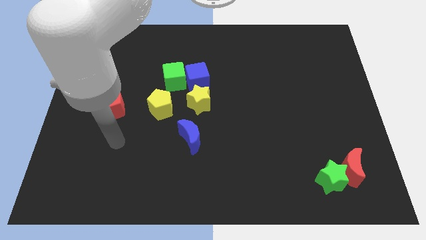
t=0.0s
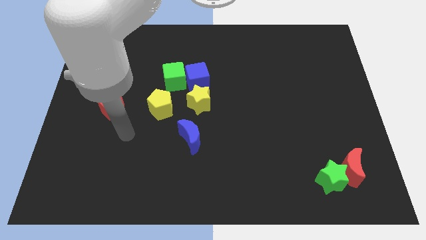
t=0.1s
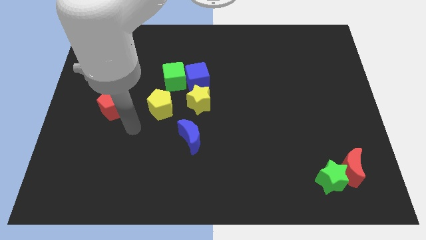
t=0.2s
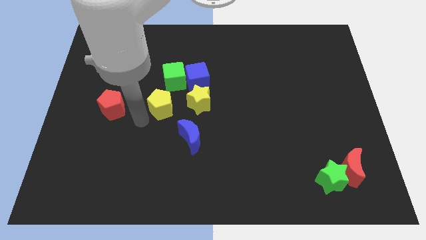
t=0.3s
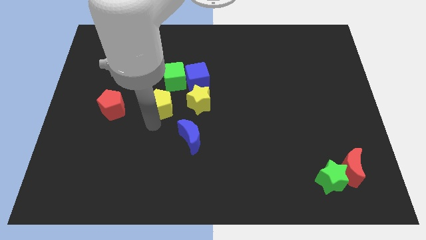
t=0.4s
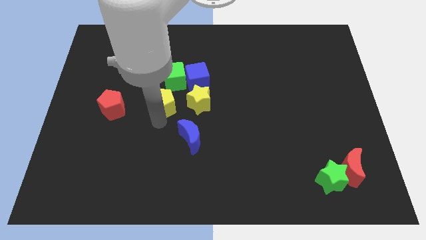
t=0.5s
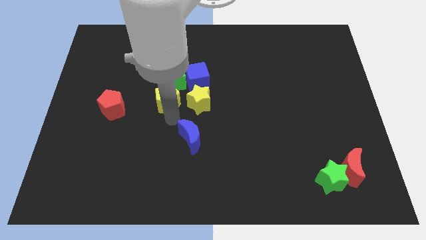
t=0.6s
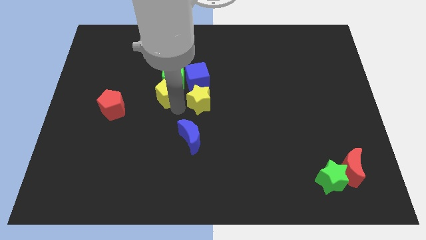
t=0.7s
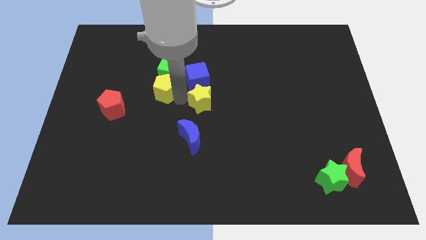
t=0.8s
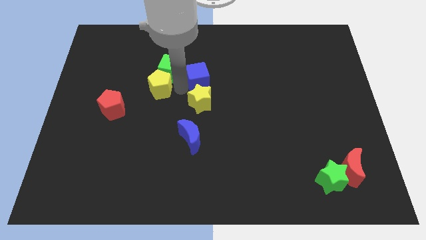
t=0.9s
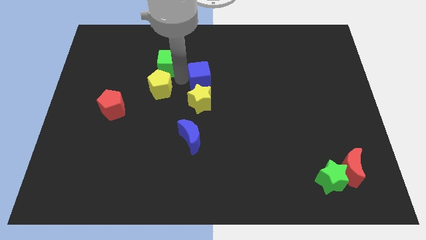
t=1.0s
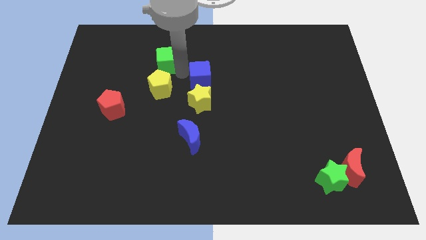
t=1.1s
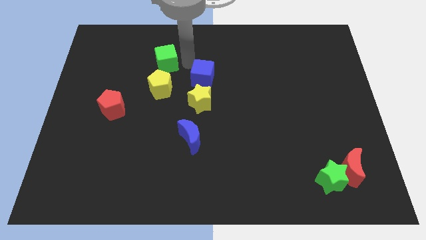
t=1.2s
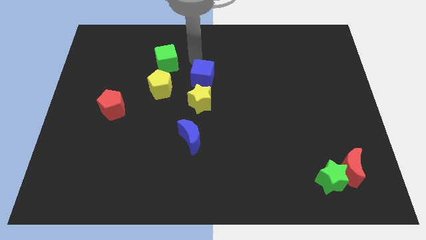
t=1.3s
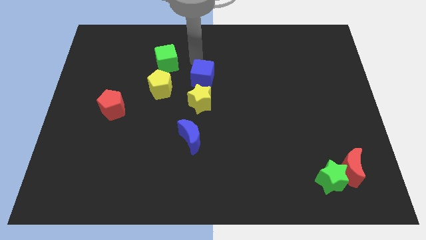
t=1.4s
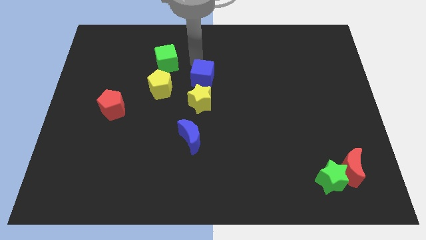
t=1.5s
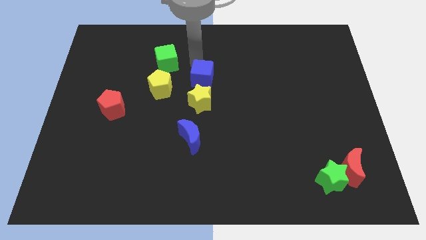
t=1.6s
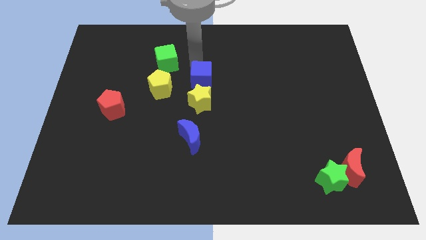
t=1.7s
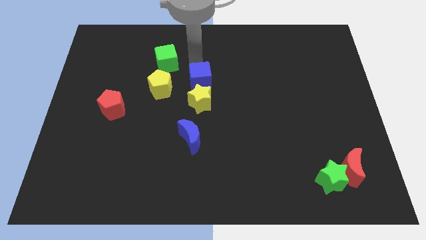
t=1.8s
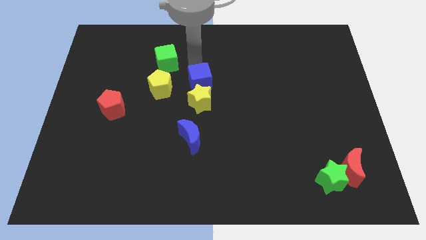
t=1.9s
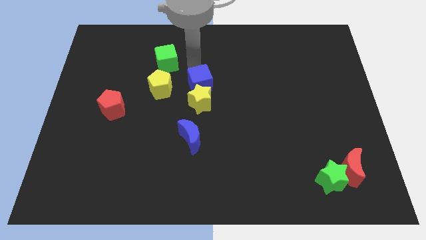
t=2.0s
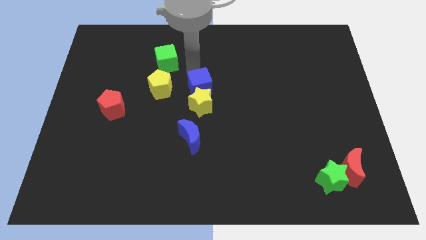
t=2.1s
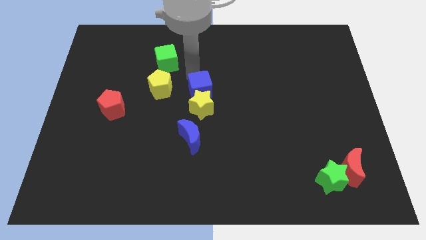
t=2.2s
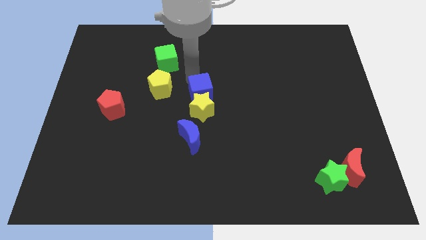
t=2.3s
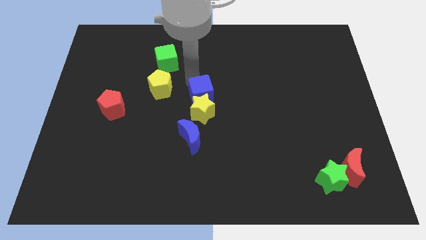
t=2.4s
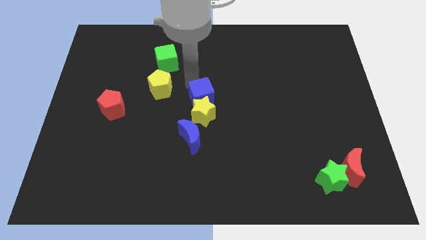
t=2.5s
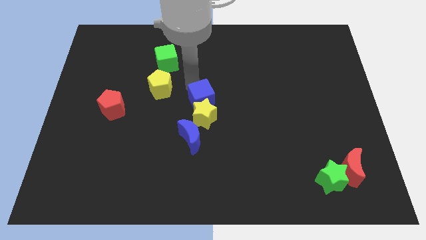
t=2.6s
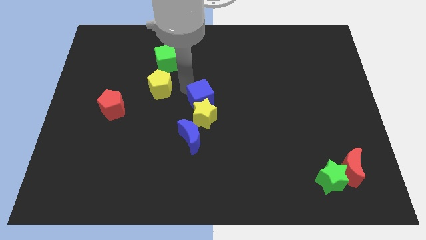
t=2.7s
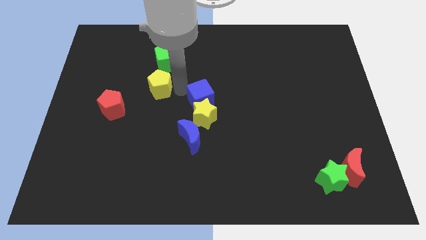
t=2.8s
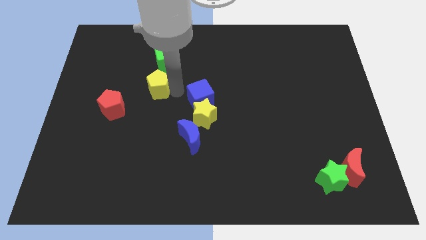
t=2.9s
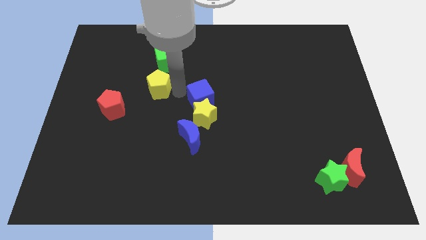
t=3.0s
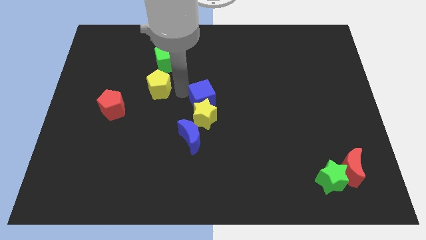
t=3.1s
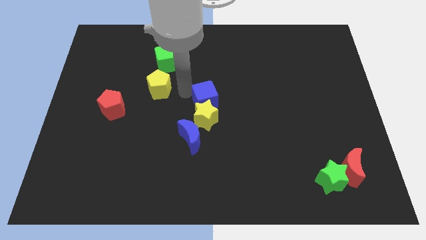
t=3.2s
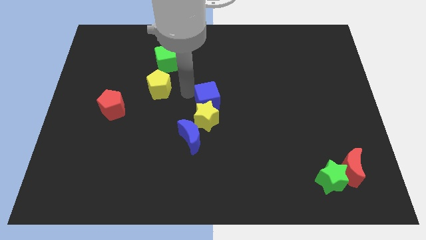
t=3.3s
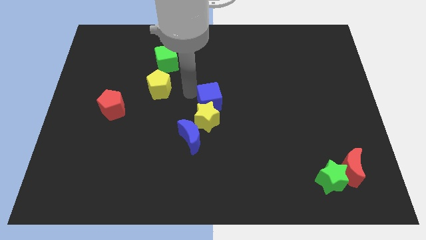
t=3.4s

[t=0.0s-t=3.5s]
move the blue cube downwards and then right somewhat

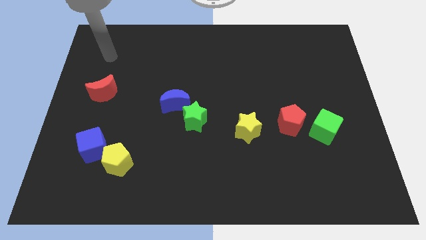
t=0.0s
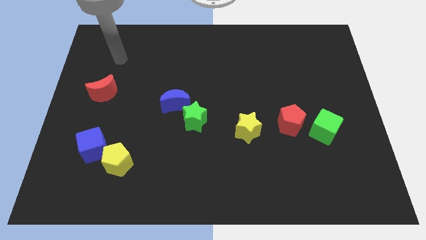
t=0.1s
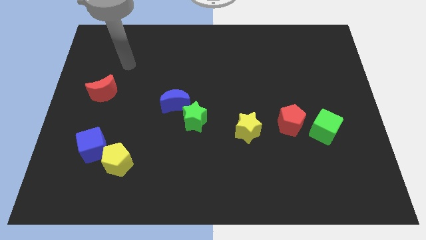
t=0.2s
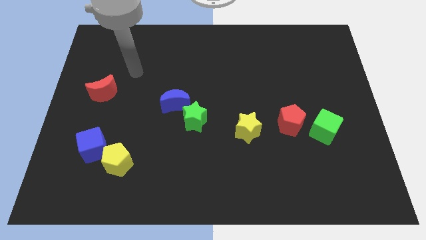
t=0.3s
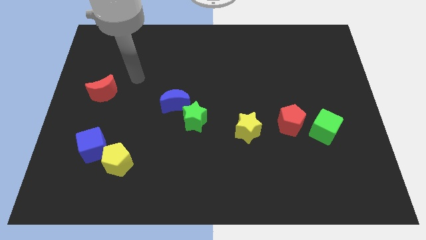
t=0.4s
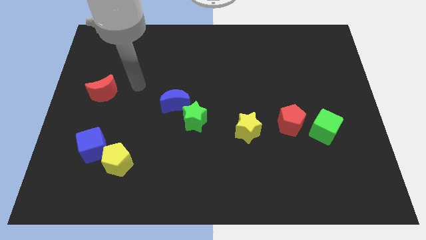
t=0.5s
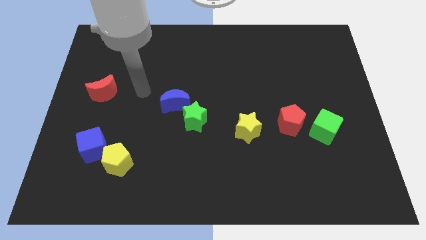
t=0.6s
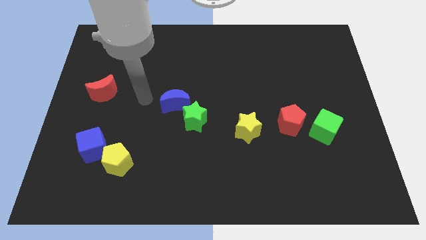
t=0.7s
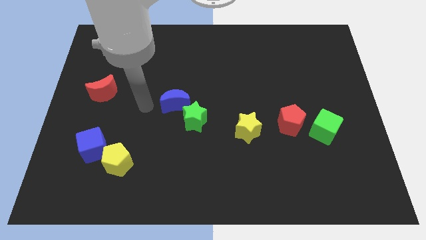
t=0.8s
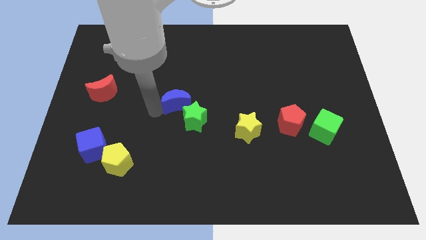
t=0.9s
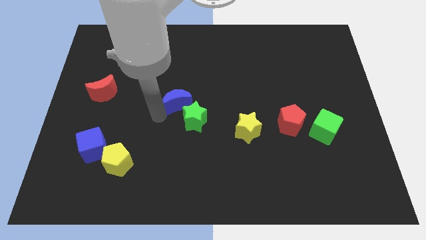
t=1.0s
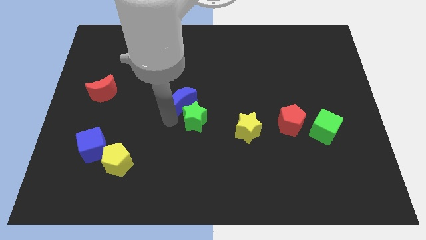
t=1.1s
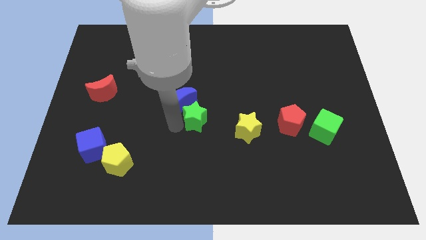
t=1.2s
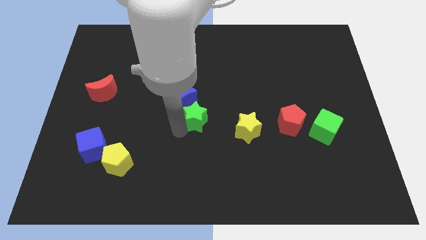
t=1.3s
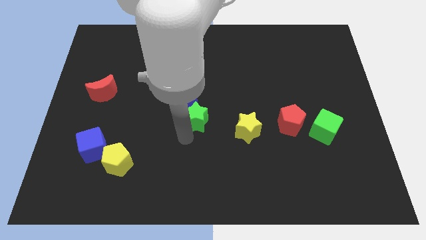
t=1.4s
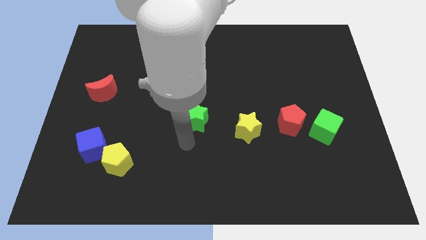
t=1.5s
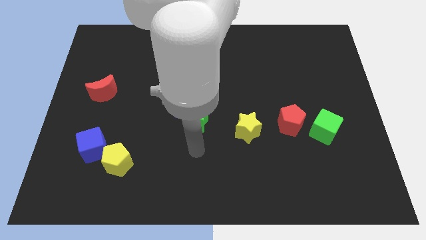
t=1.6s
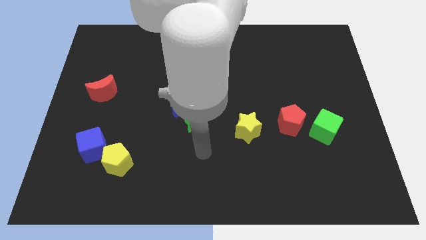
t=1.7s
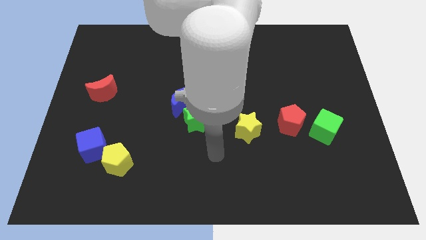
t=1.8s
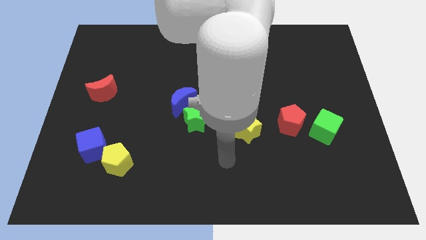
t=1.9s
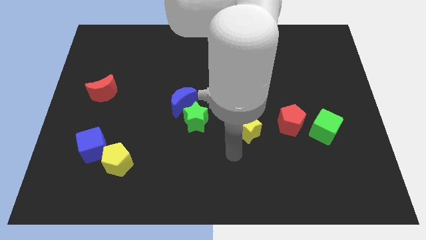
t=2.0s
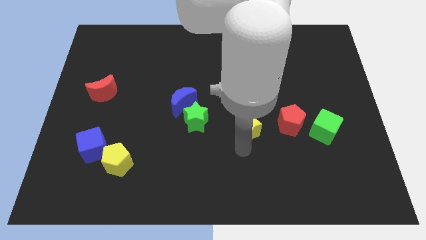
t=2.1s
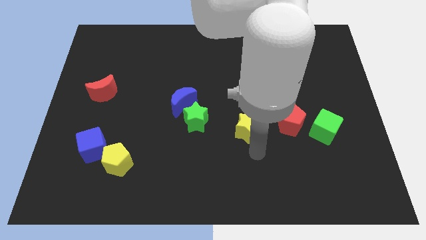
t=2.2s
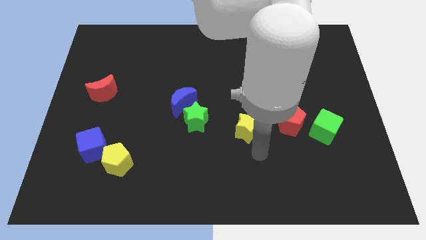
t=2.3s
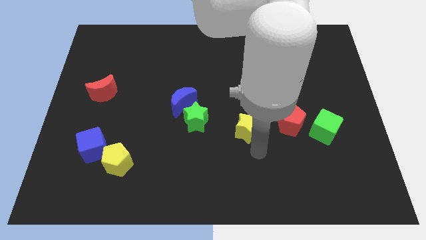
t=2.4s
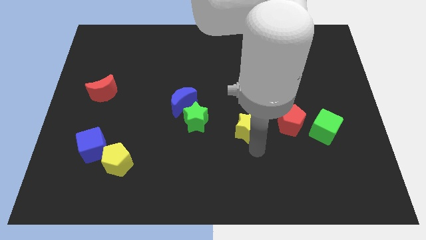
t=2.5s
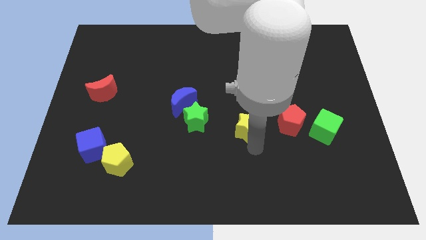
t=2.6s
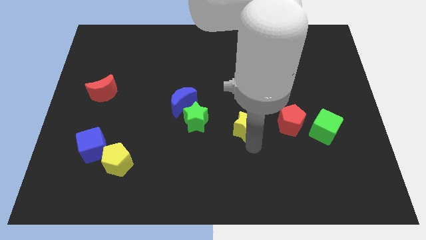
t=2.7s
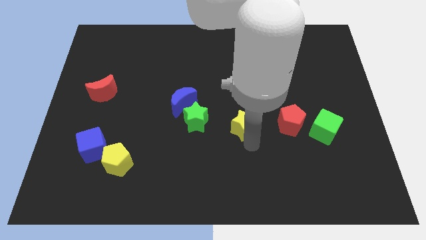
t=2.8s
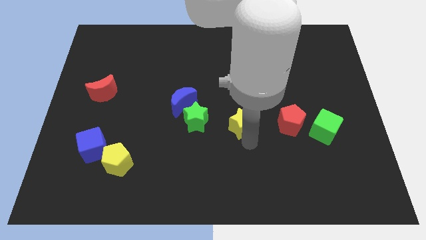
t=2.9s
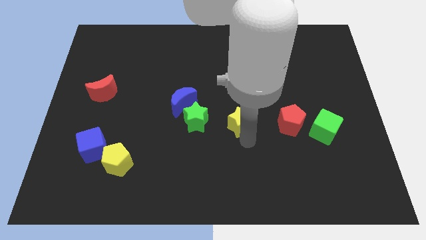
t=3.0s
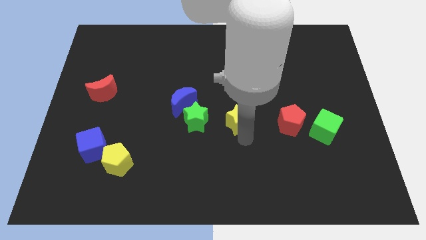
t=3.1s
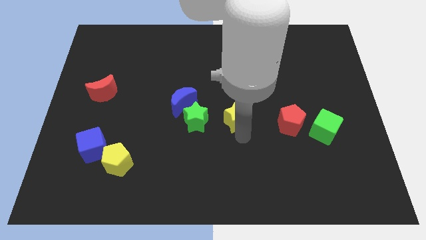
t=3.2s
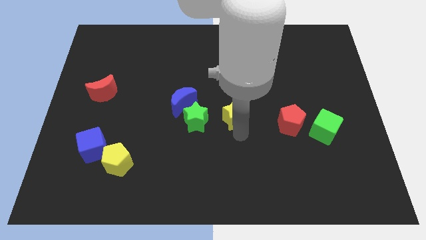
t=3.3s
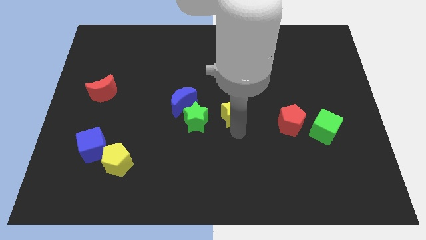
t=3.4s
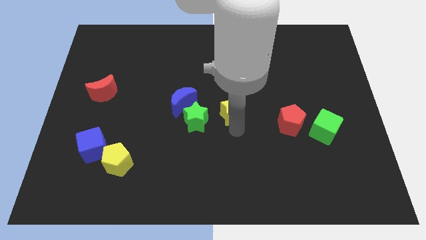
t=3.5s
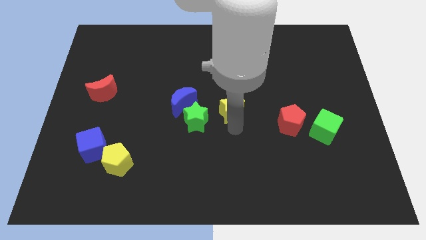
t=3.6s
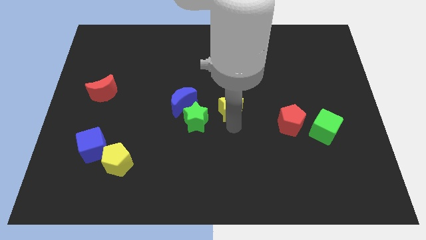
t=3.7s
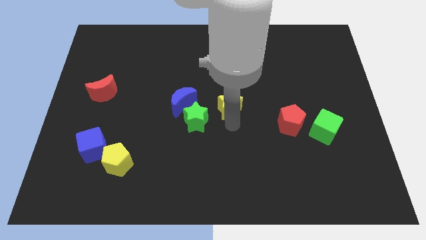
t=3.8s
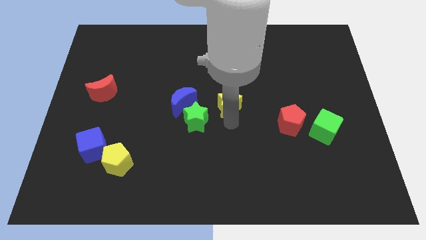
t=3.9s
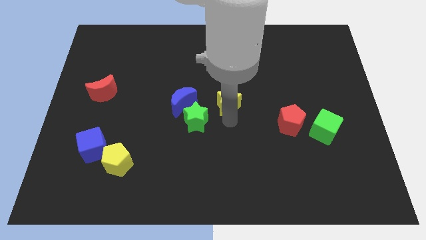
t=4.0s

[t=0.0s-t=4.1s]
slightly push the yellow star up

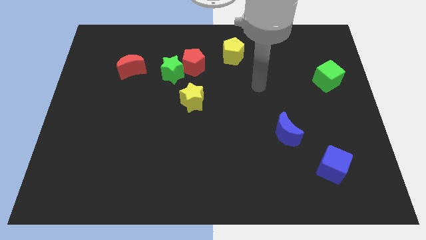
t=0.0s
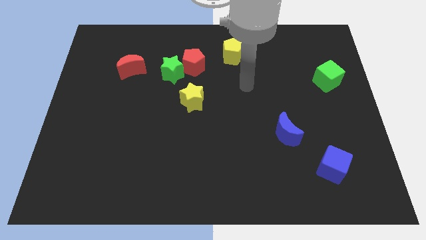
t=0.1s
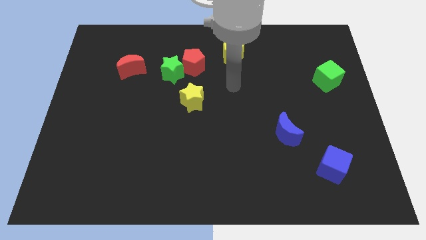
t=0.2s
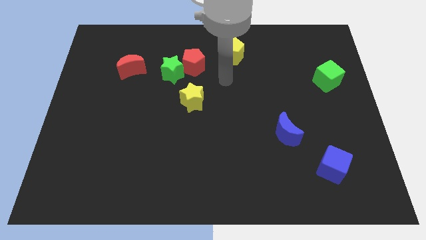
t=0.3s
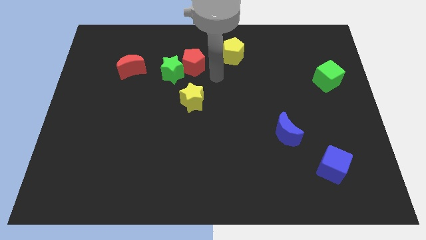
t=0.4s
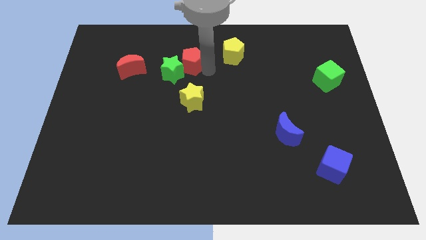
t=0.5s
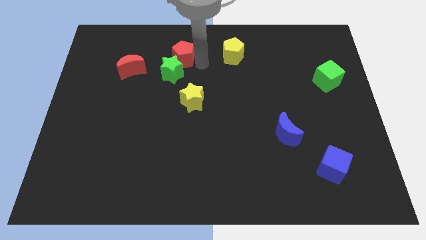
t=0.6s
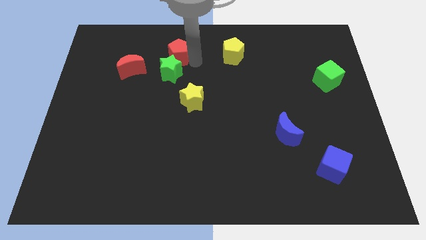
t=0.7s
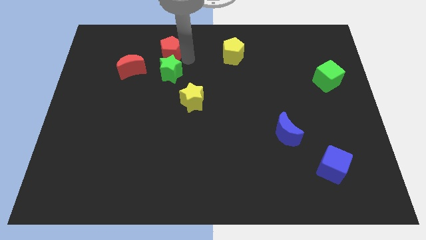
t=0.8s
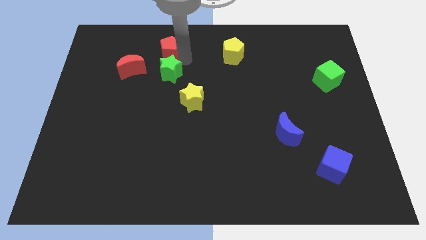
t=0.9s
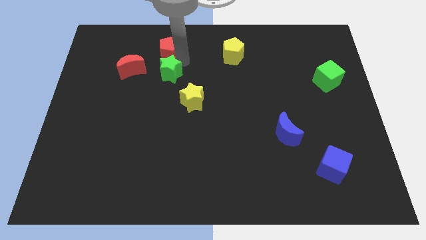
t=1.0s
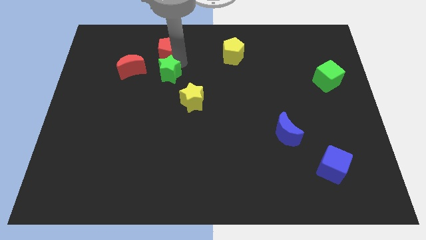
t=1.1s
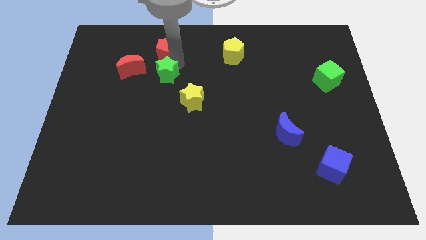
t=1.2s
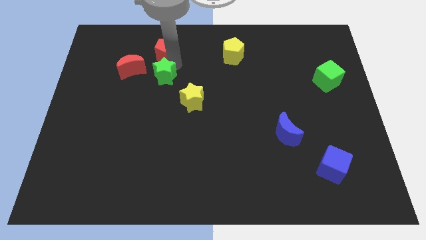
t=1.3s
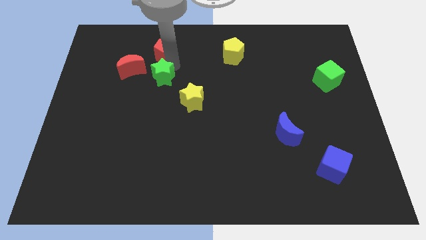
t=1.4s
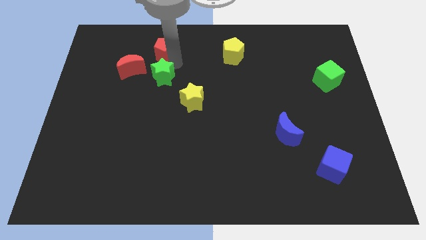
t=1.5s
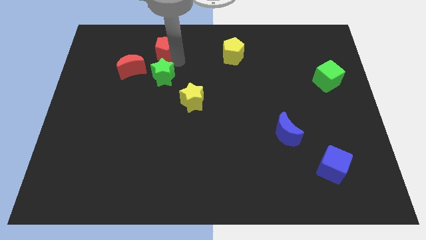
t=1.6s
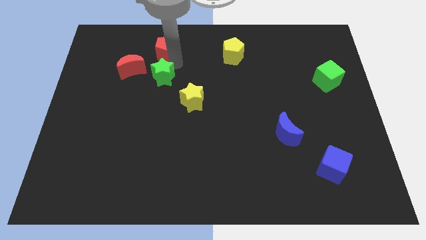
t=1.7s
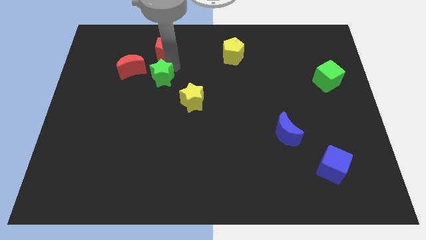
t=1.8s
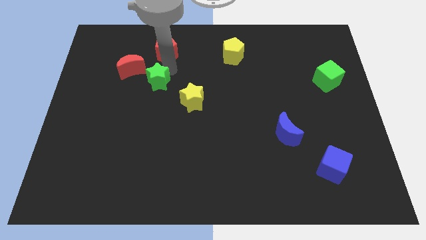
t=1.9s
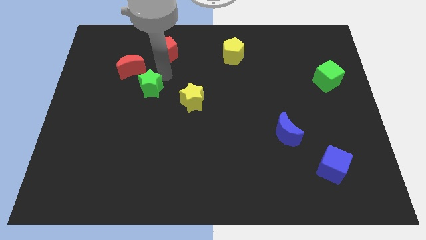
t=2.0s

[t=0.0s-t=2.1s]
slightly slide the green star down and then left
